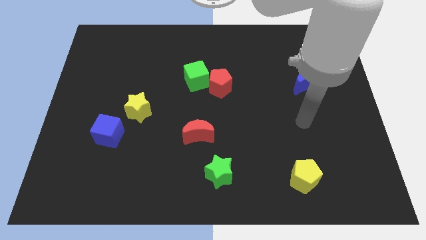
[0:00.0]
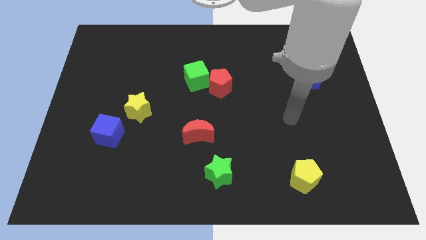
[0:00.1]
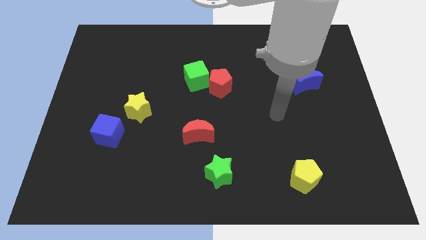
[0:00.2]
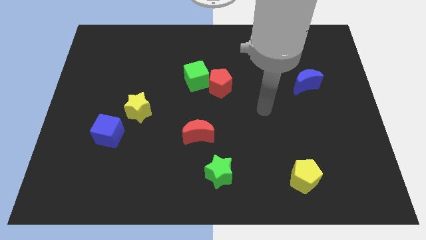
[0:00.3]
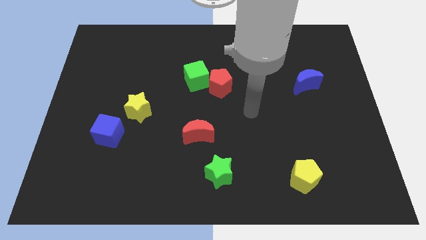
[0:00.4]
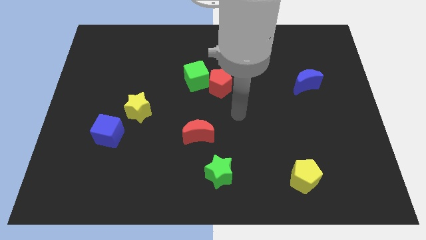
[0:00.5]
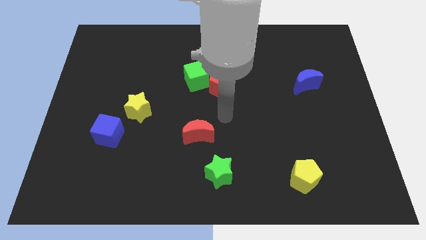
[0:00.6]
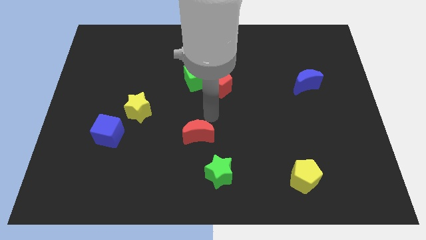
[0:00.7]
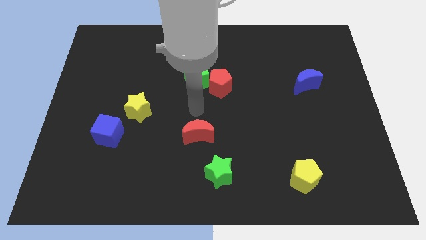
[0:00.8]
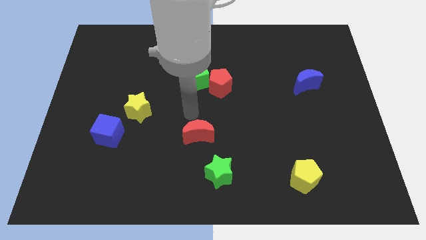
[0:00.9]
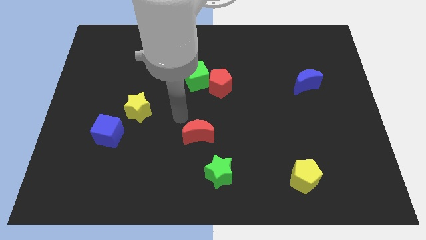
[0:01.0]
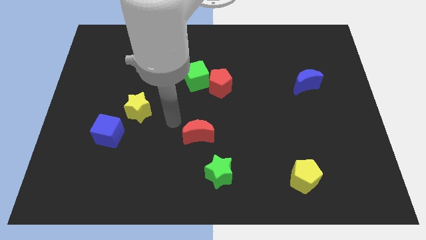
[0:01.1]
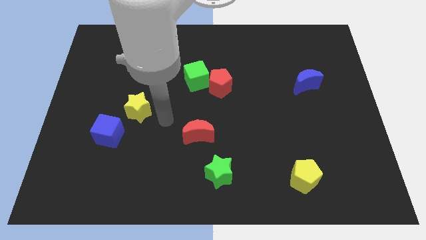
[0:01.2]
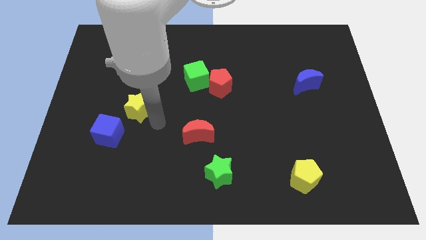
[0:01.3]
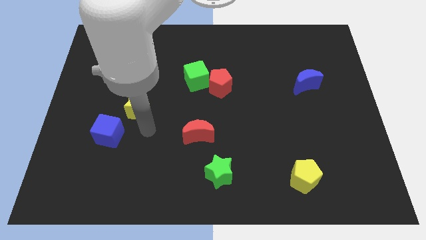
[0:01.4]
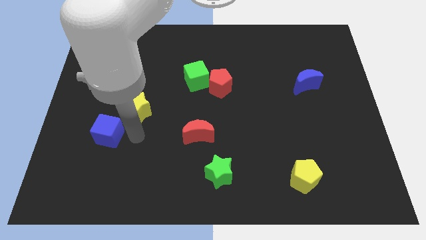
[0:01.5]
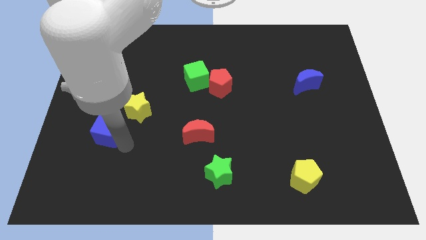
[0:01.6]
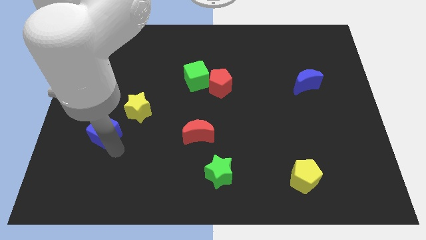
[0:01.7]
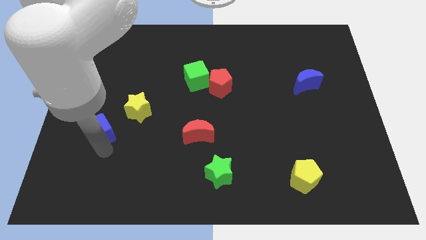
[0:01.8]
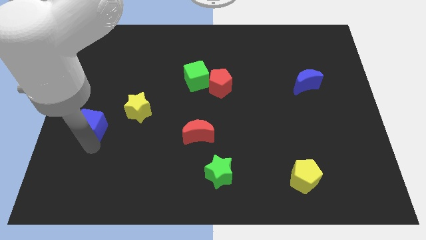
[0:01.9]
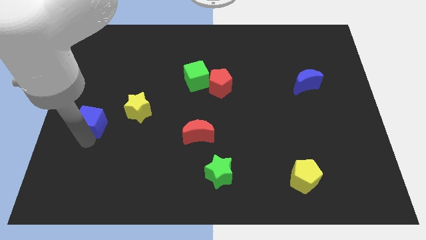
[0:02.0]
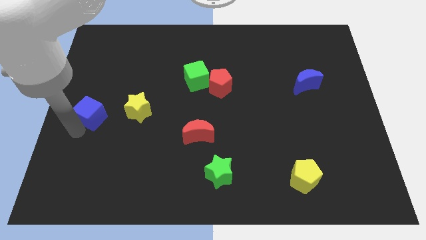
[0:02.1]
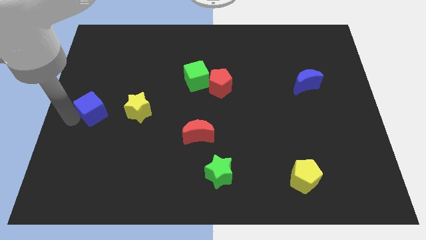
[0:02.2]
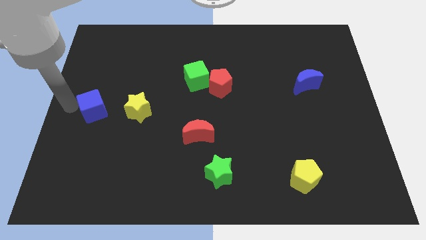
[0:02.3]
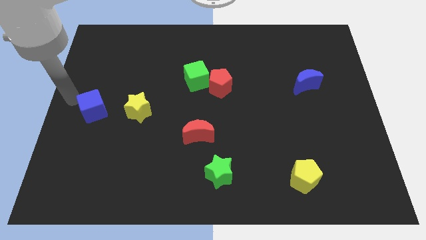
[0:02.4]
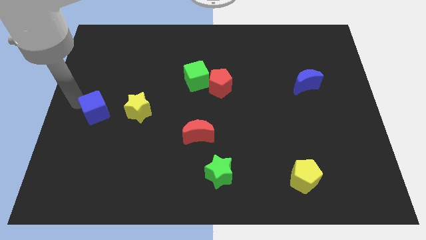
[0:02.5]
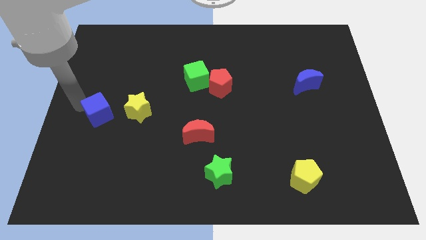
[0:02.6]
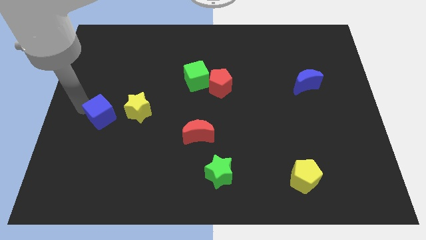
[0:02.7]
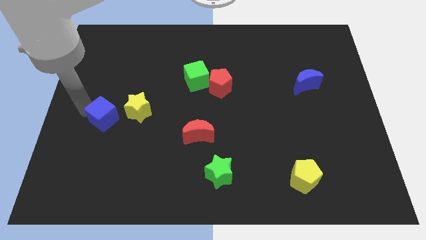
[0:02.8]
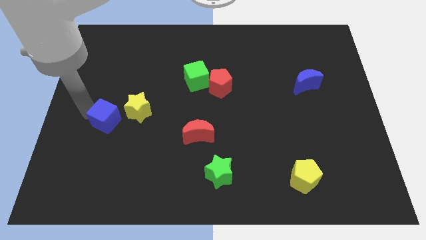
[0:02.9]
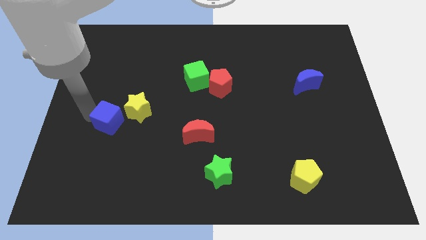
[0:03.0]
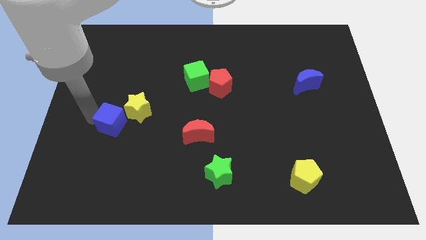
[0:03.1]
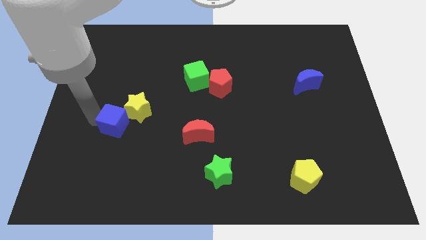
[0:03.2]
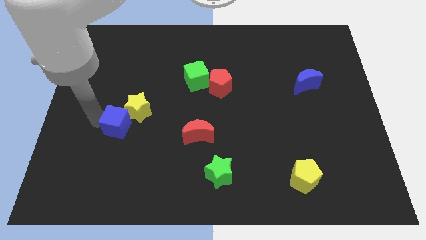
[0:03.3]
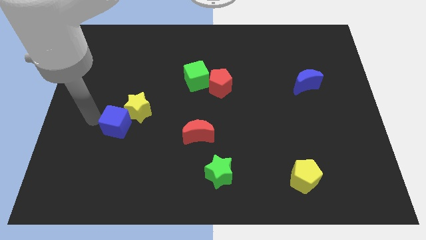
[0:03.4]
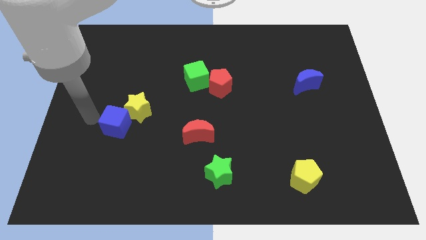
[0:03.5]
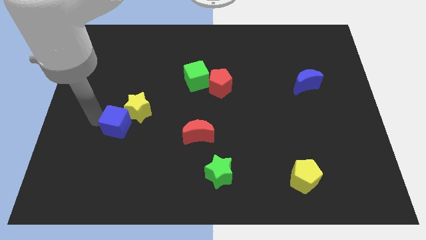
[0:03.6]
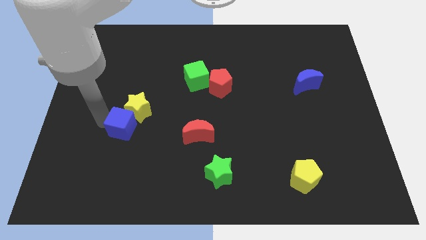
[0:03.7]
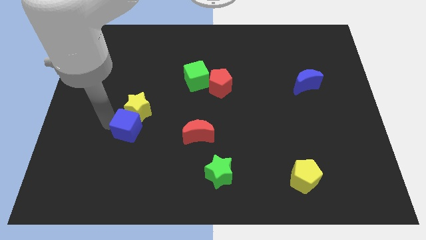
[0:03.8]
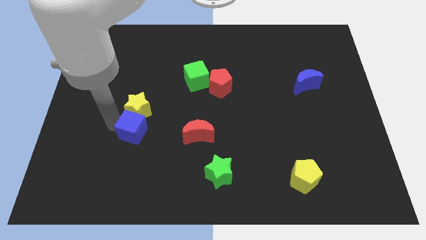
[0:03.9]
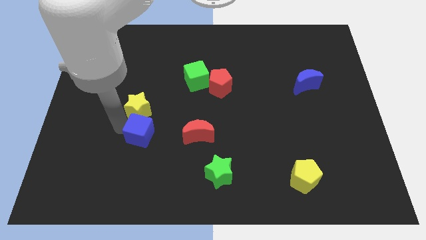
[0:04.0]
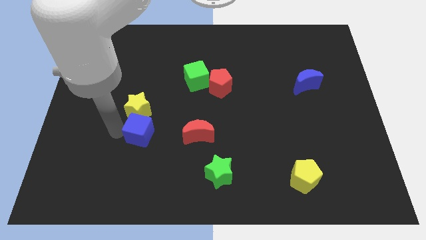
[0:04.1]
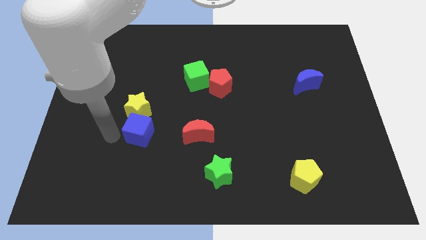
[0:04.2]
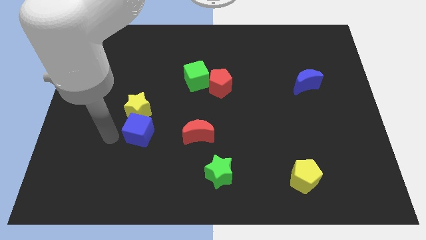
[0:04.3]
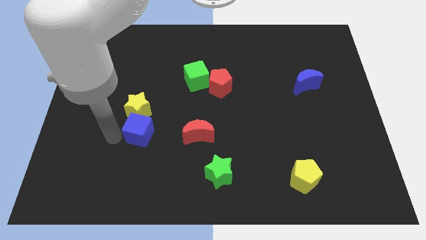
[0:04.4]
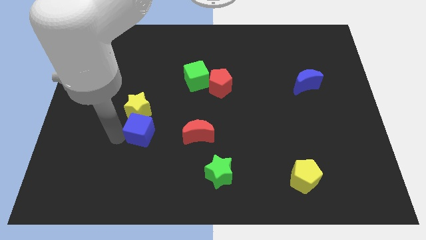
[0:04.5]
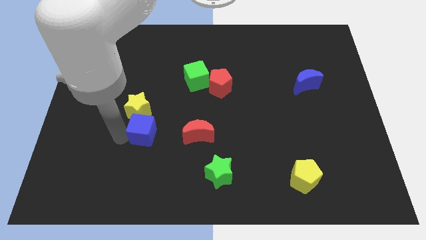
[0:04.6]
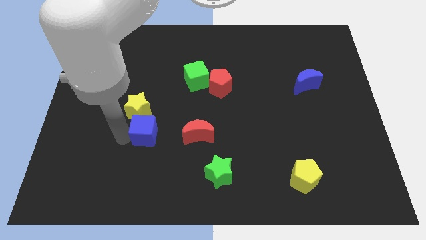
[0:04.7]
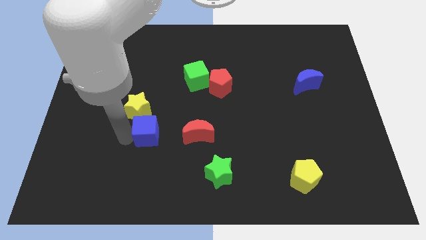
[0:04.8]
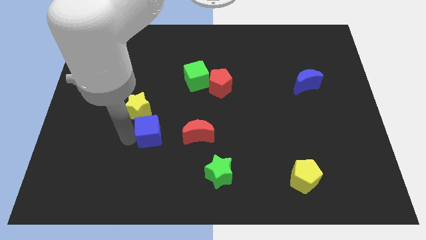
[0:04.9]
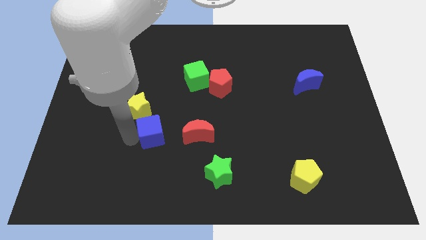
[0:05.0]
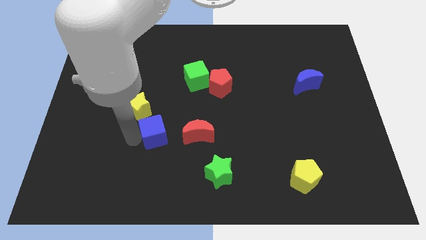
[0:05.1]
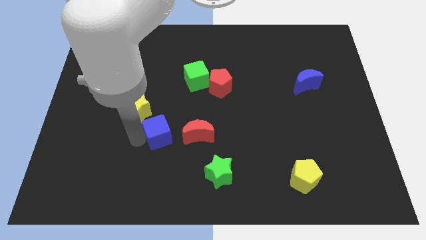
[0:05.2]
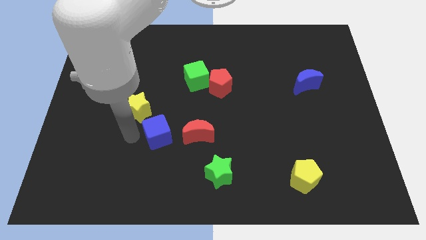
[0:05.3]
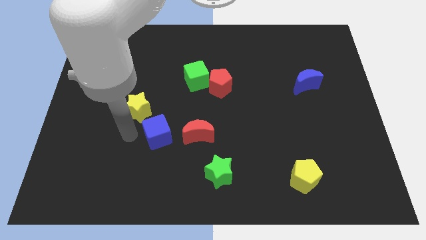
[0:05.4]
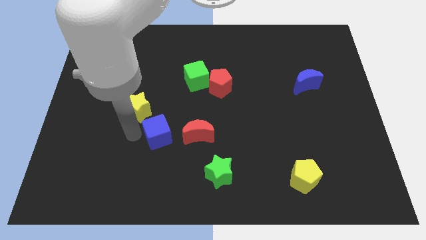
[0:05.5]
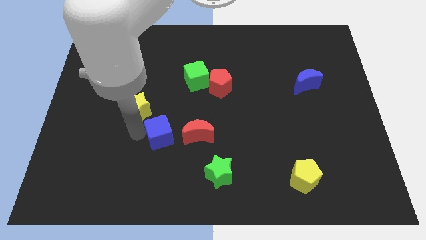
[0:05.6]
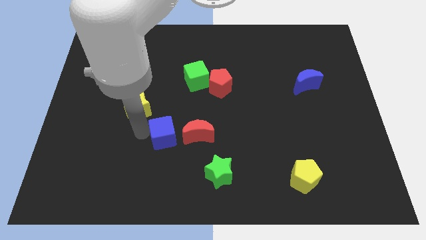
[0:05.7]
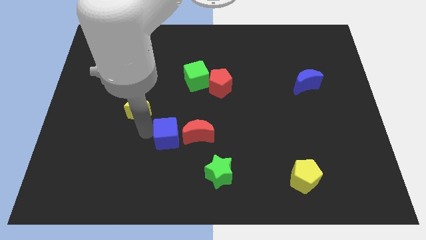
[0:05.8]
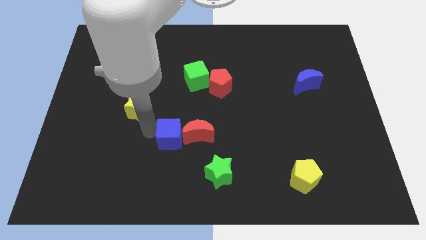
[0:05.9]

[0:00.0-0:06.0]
put the blue cube to the red moon

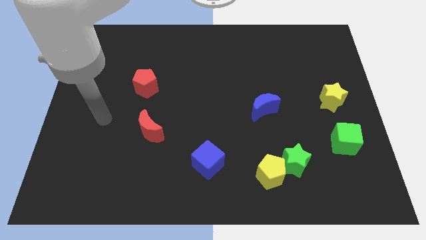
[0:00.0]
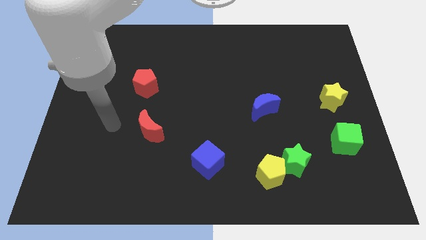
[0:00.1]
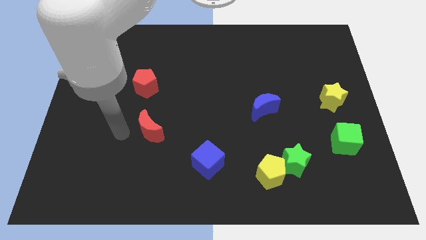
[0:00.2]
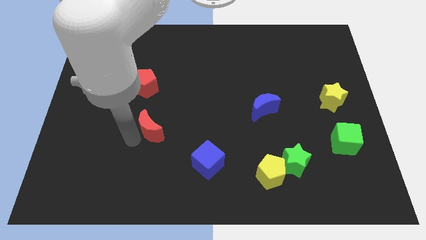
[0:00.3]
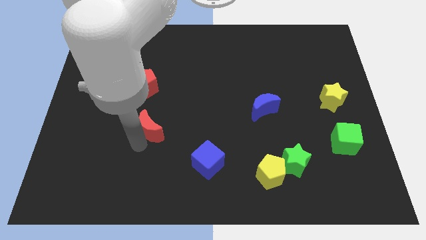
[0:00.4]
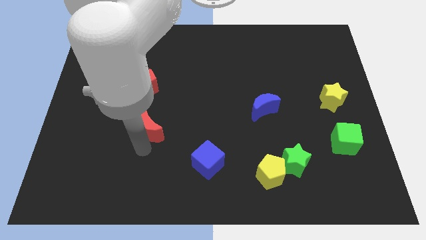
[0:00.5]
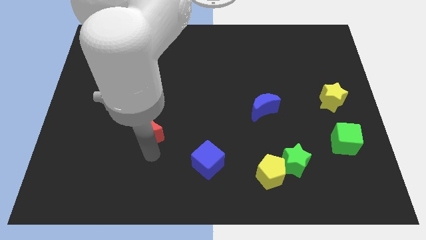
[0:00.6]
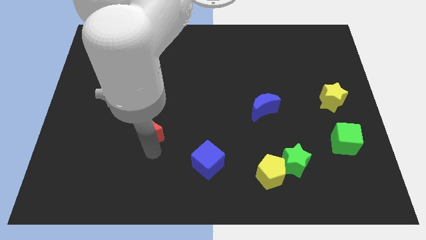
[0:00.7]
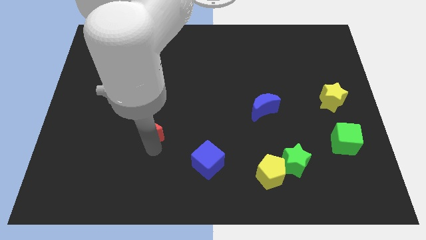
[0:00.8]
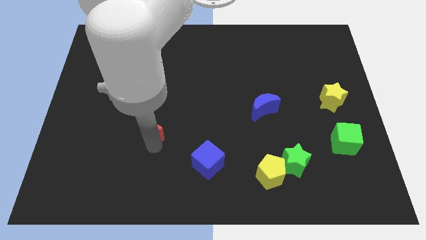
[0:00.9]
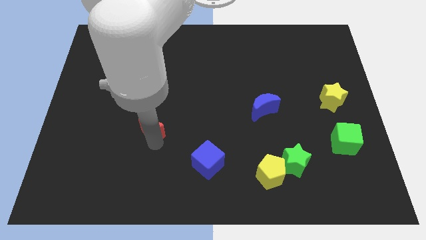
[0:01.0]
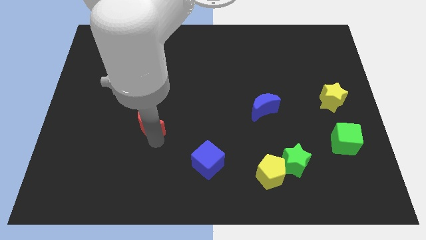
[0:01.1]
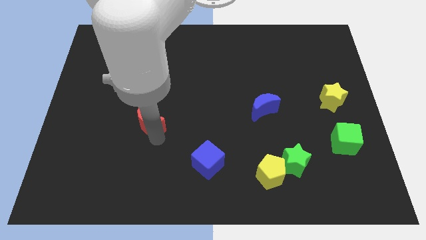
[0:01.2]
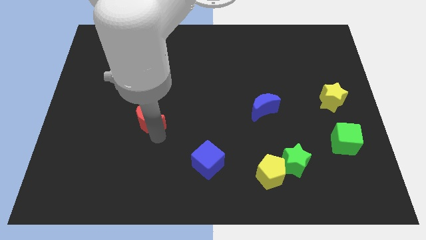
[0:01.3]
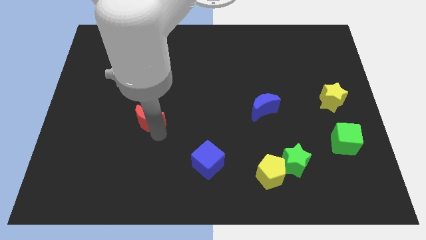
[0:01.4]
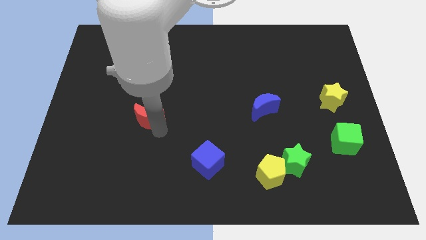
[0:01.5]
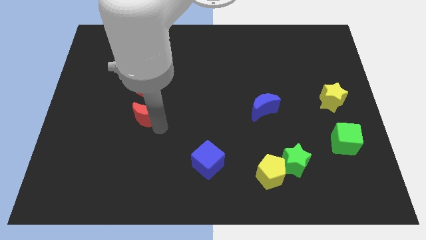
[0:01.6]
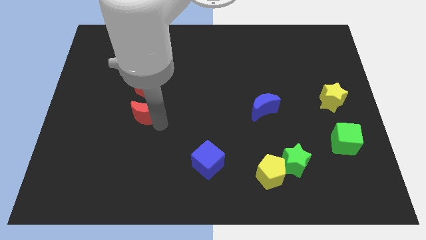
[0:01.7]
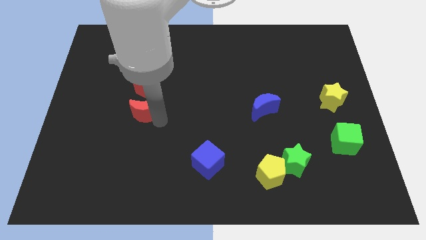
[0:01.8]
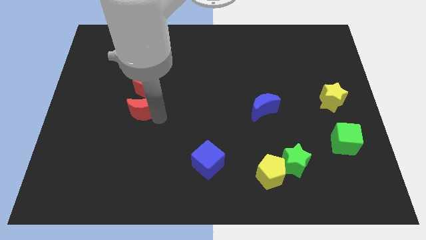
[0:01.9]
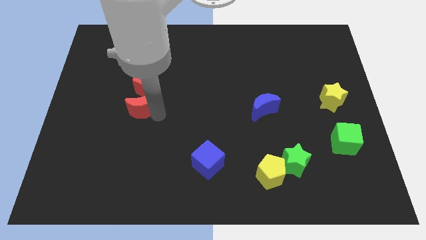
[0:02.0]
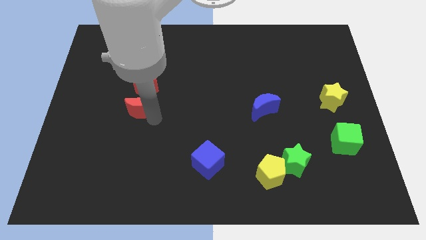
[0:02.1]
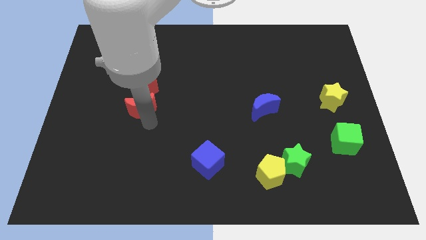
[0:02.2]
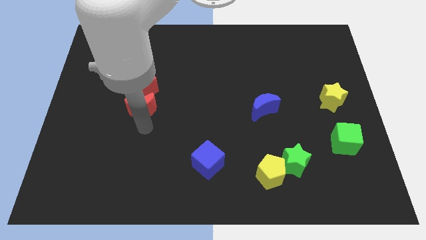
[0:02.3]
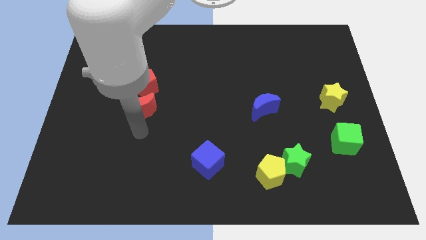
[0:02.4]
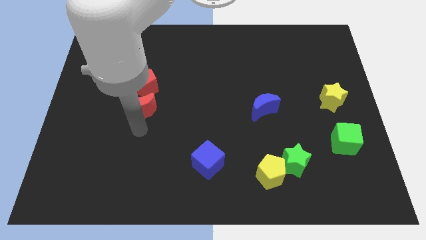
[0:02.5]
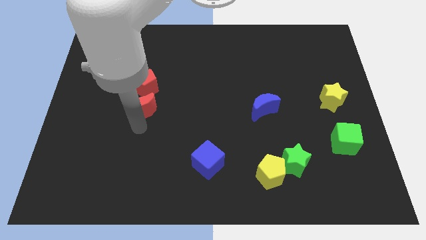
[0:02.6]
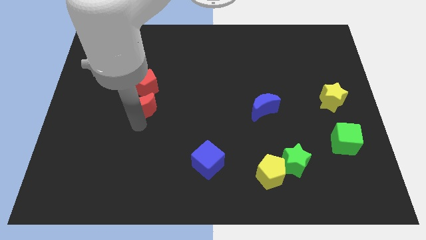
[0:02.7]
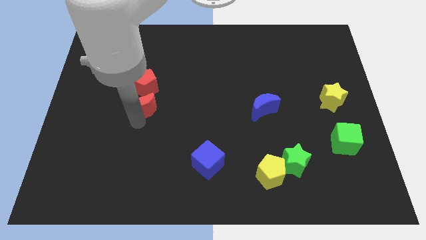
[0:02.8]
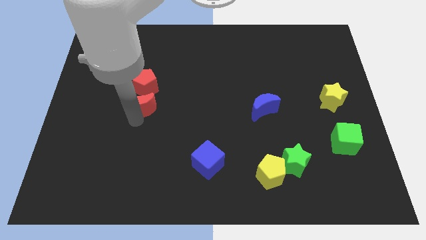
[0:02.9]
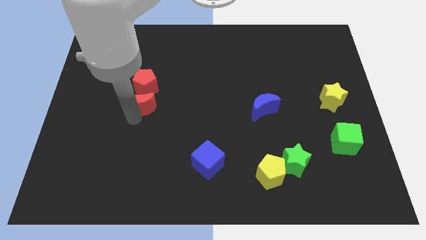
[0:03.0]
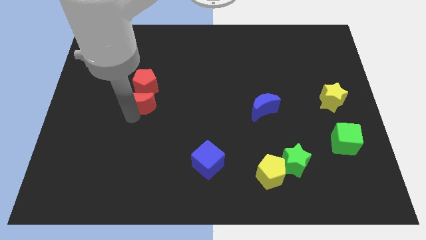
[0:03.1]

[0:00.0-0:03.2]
slide the red moon close to the red pentagon
